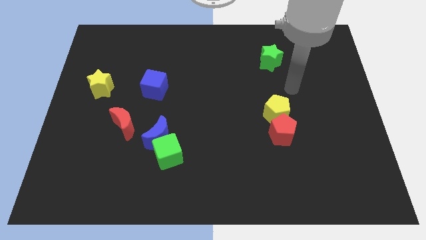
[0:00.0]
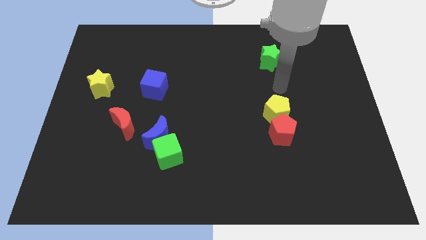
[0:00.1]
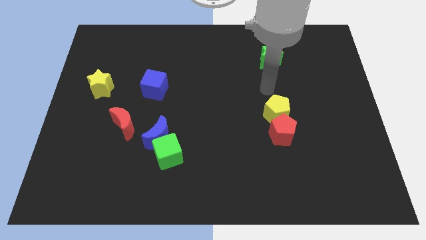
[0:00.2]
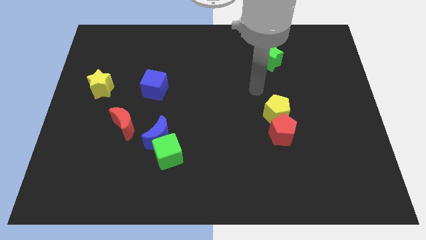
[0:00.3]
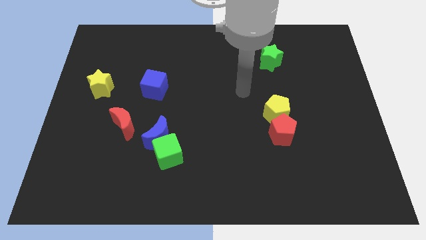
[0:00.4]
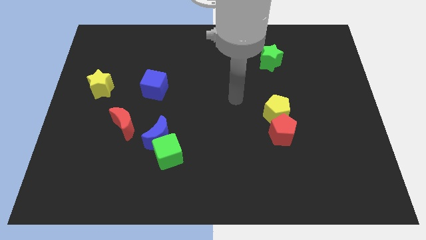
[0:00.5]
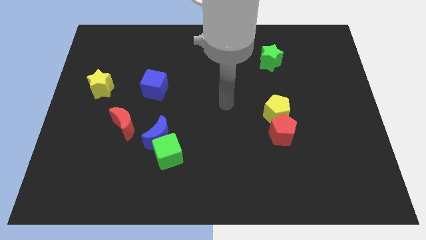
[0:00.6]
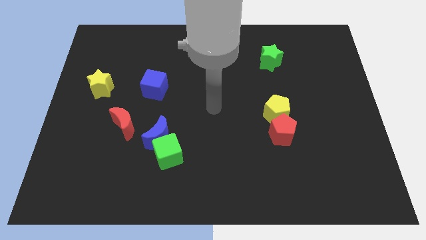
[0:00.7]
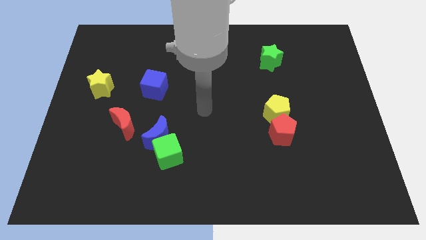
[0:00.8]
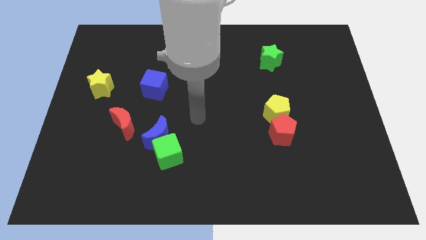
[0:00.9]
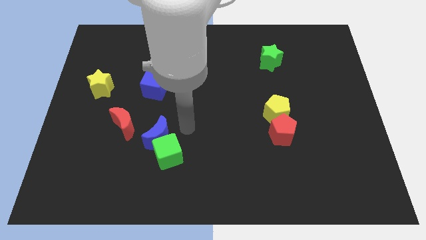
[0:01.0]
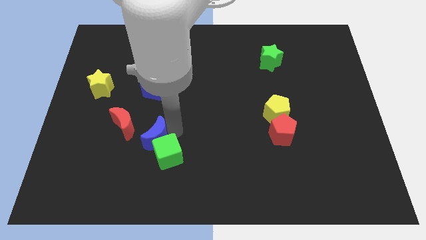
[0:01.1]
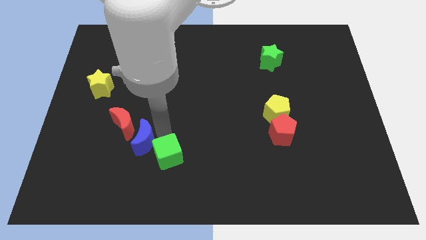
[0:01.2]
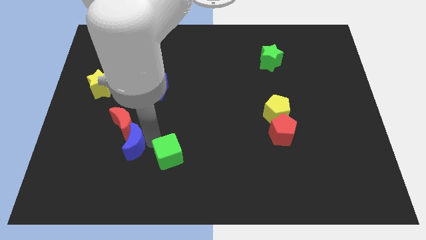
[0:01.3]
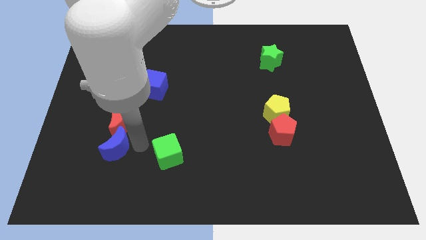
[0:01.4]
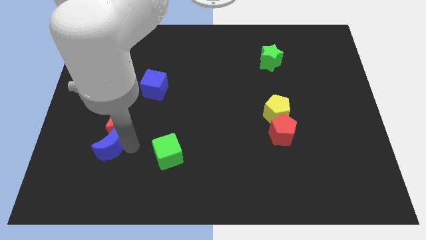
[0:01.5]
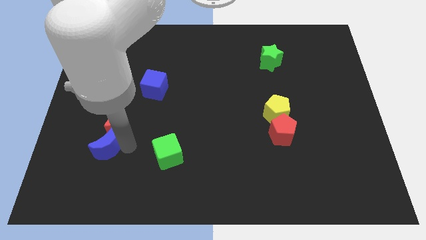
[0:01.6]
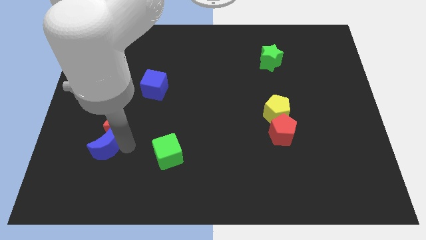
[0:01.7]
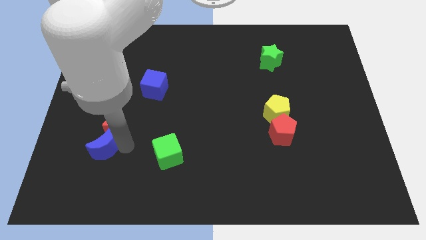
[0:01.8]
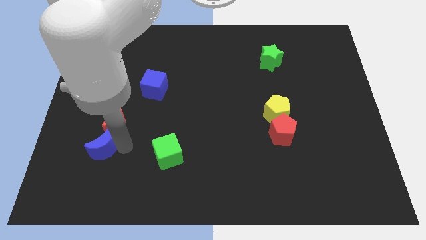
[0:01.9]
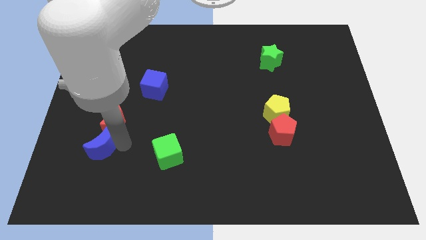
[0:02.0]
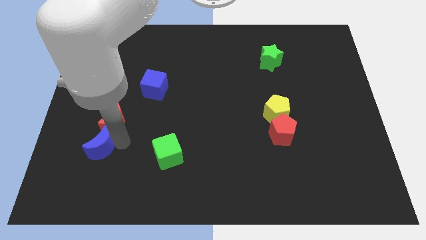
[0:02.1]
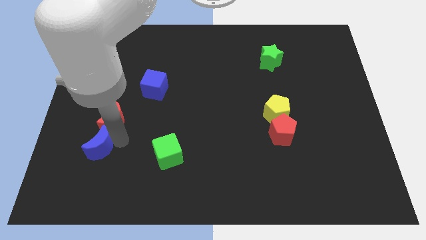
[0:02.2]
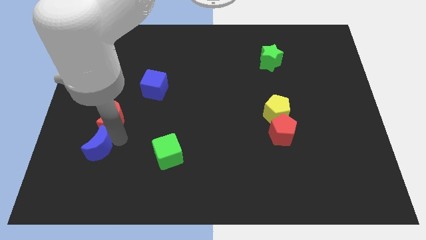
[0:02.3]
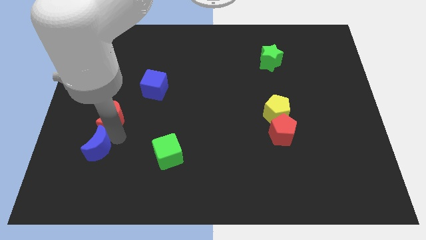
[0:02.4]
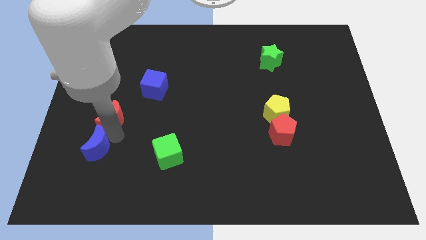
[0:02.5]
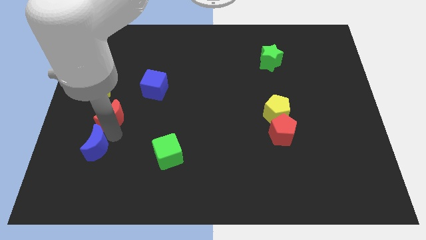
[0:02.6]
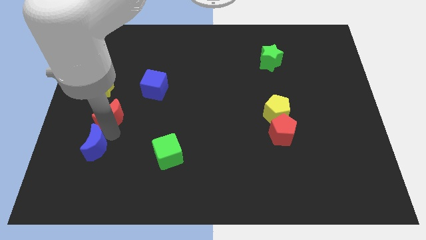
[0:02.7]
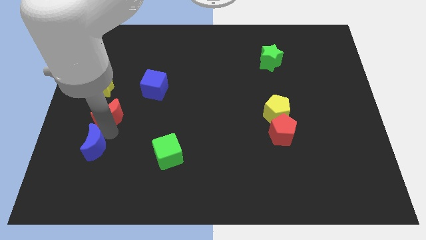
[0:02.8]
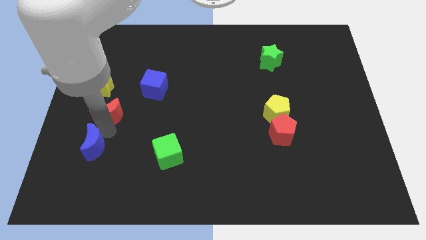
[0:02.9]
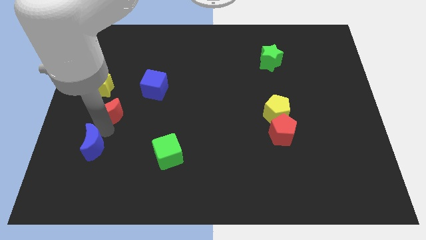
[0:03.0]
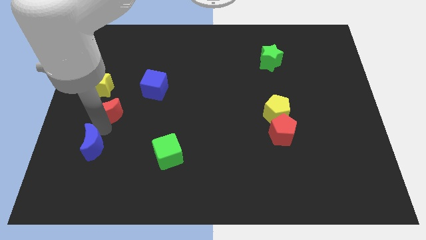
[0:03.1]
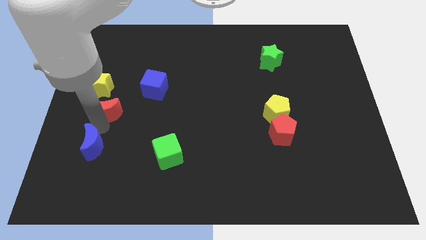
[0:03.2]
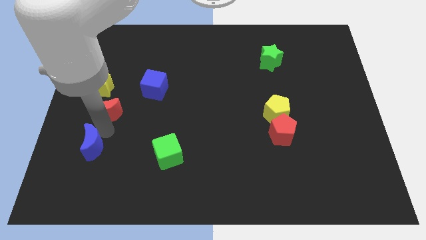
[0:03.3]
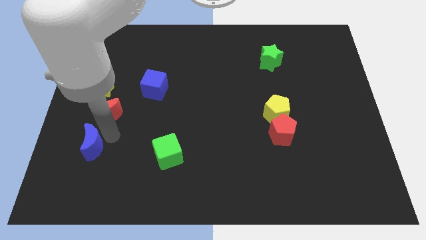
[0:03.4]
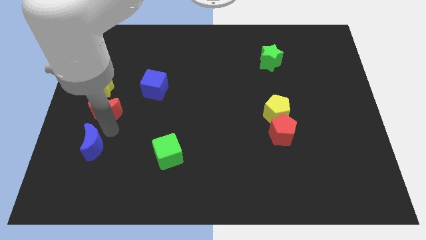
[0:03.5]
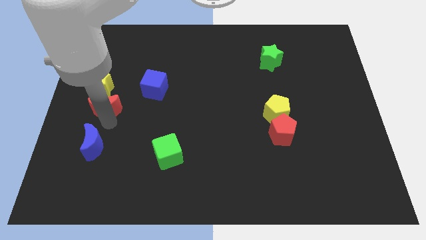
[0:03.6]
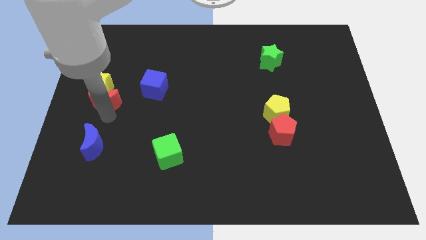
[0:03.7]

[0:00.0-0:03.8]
slide the red moon close to the yellow star

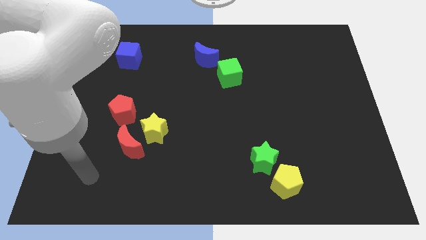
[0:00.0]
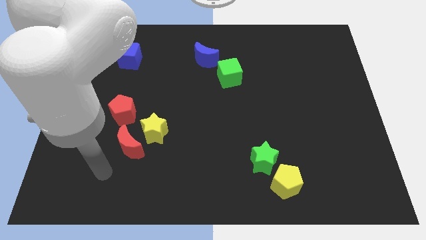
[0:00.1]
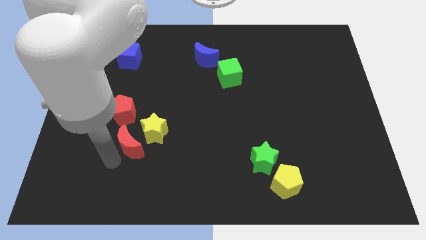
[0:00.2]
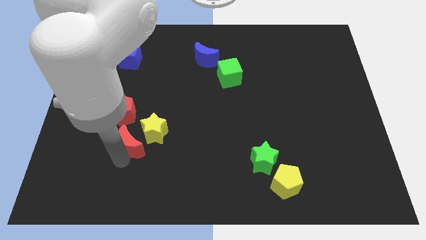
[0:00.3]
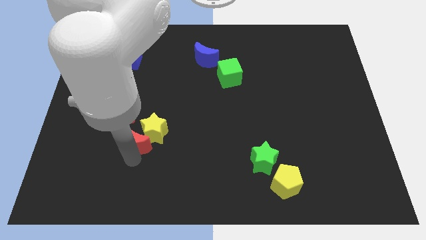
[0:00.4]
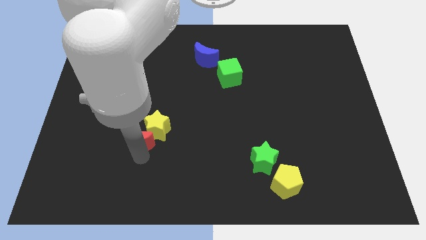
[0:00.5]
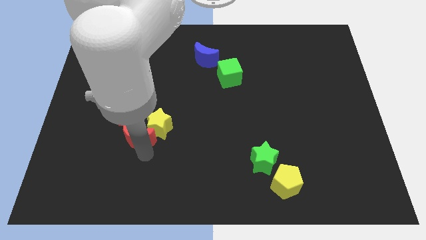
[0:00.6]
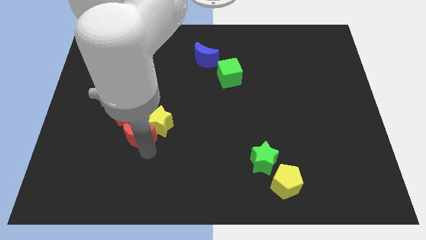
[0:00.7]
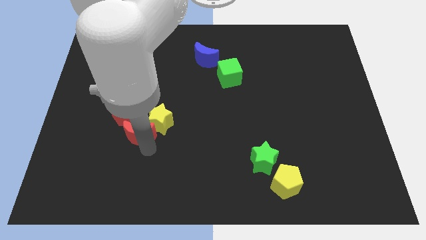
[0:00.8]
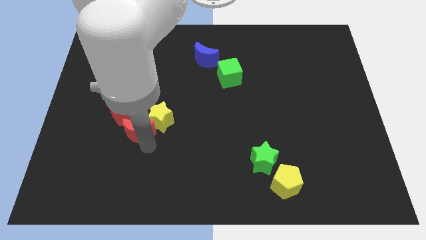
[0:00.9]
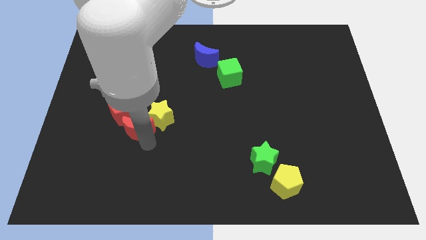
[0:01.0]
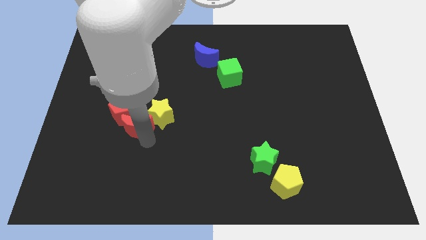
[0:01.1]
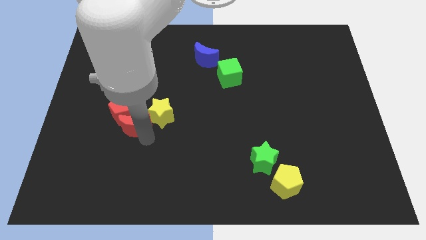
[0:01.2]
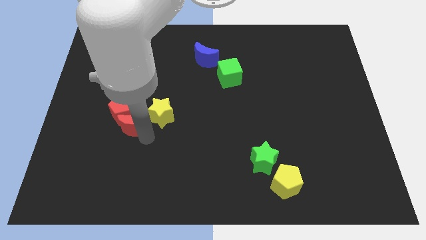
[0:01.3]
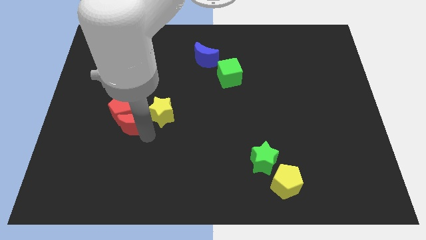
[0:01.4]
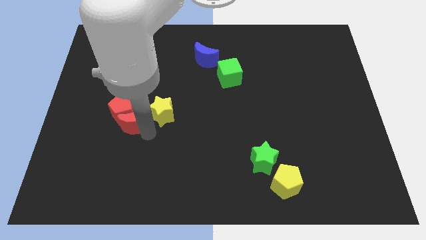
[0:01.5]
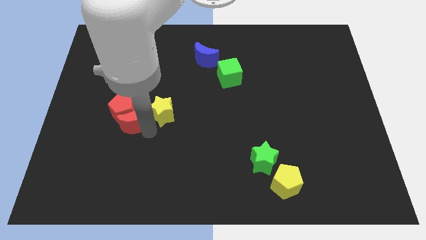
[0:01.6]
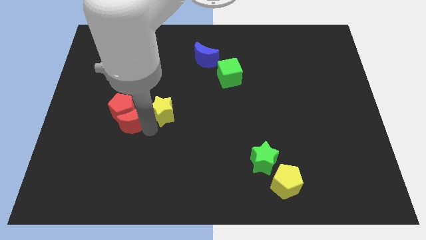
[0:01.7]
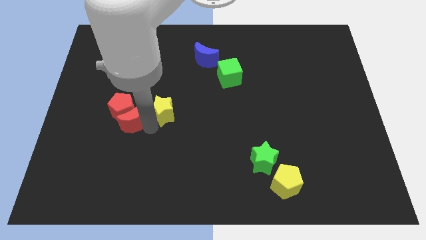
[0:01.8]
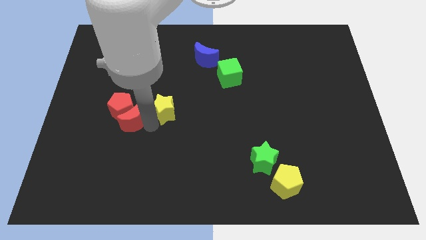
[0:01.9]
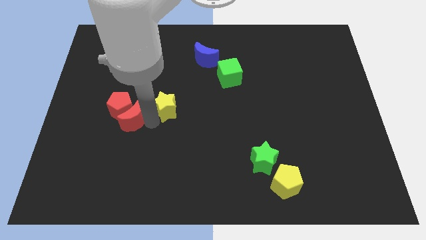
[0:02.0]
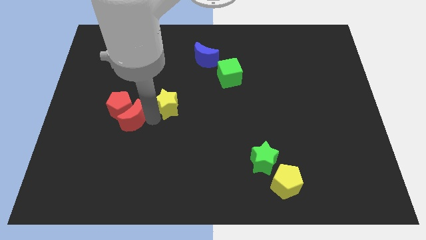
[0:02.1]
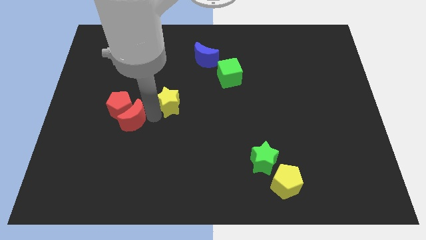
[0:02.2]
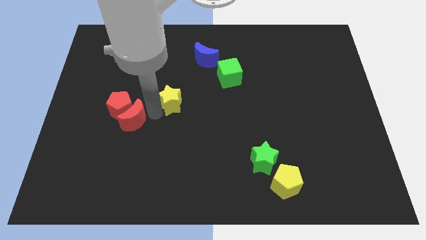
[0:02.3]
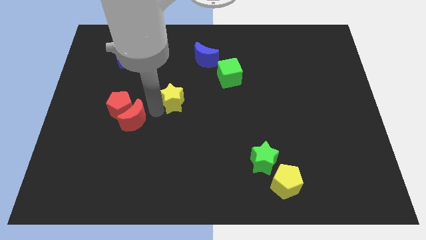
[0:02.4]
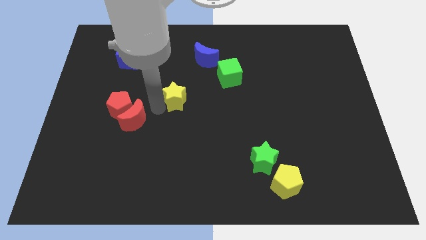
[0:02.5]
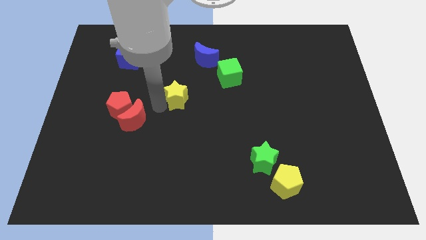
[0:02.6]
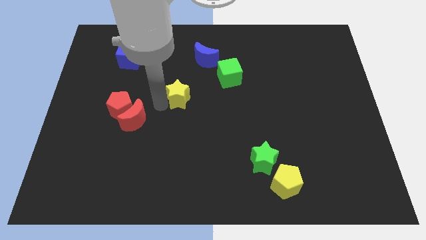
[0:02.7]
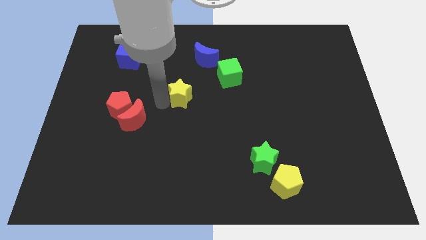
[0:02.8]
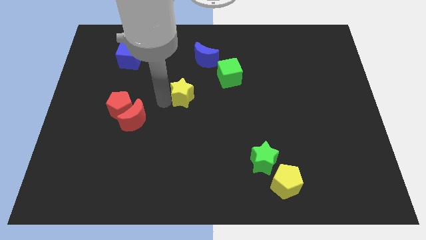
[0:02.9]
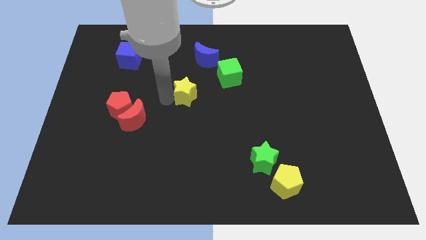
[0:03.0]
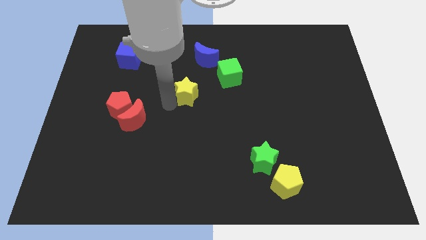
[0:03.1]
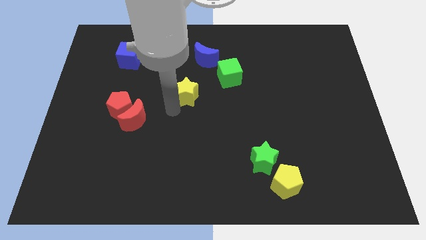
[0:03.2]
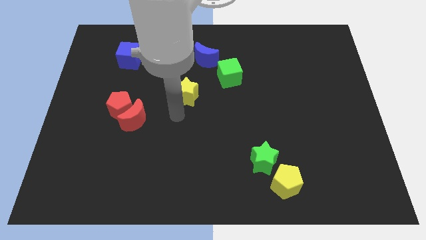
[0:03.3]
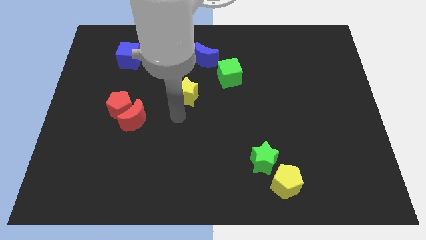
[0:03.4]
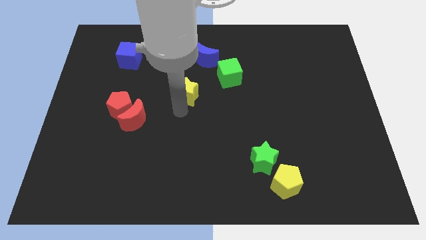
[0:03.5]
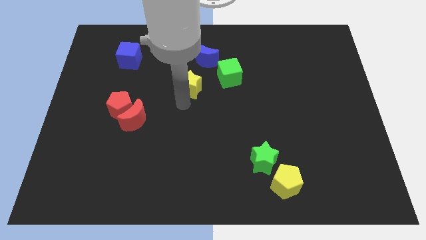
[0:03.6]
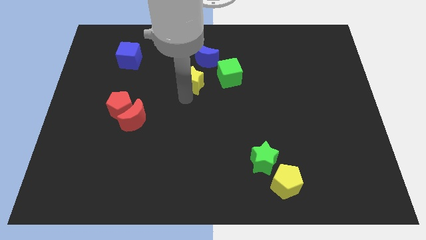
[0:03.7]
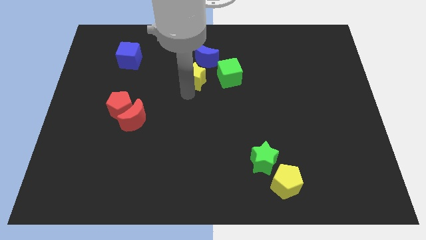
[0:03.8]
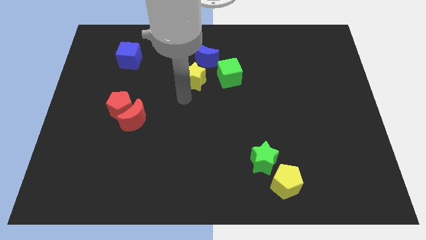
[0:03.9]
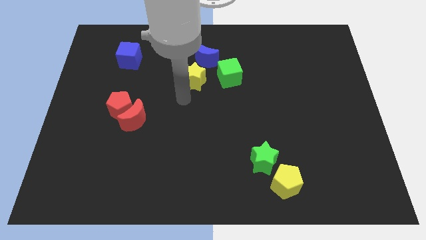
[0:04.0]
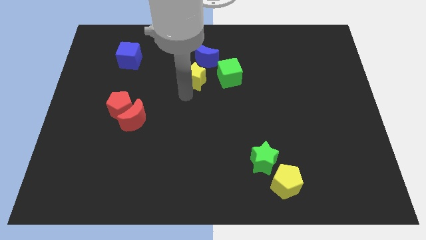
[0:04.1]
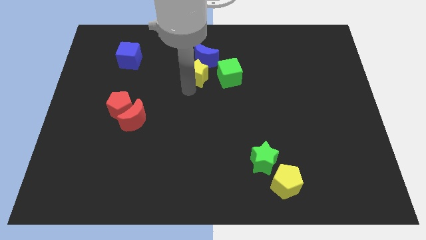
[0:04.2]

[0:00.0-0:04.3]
put the yellow star next to the blue moon
